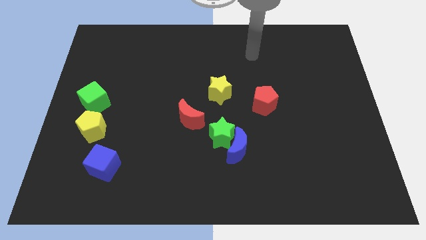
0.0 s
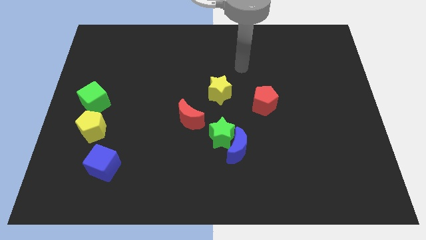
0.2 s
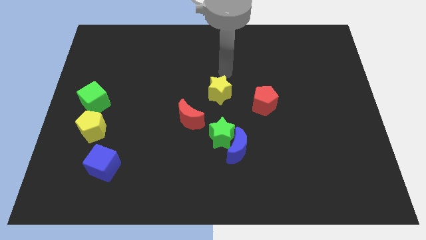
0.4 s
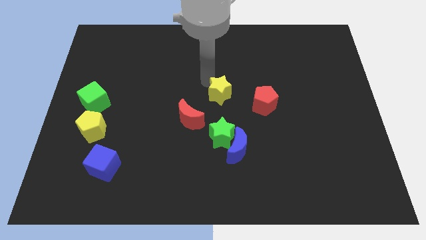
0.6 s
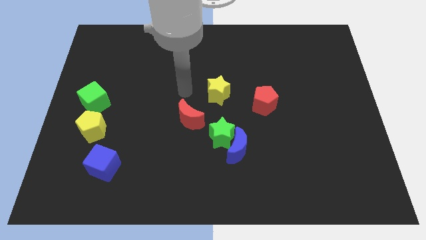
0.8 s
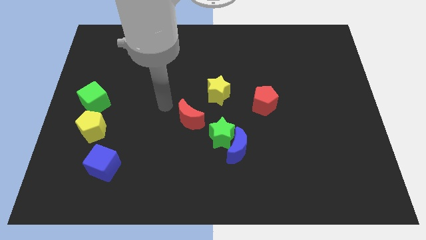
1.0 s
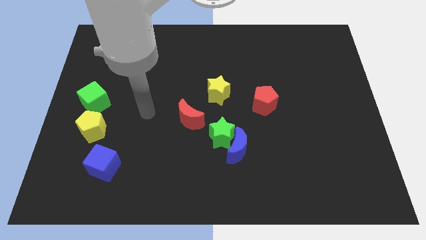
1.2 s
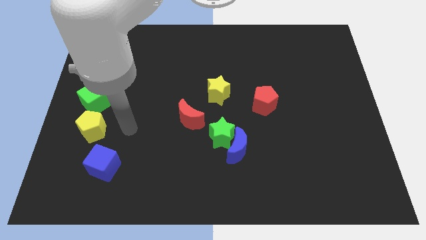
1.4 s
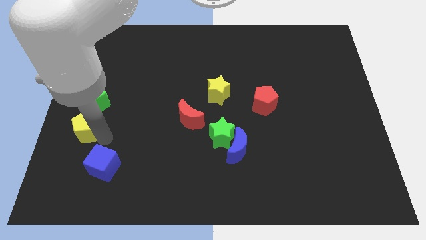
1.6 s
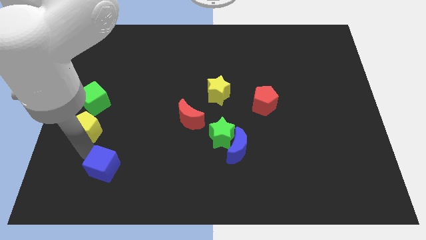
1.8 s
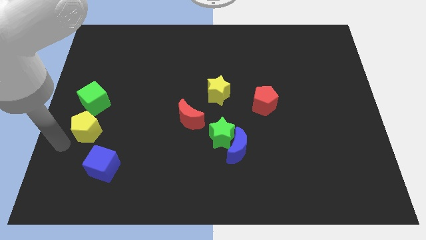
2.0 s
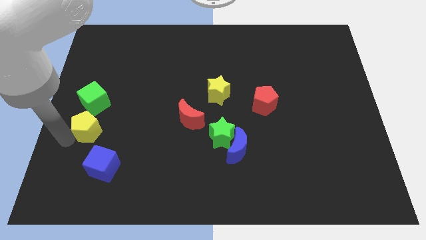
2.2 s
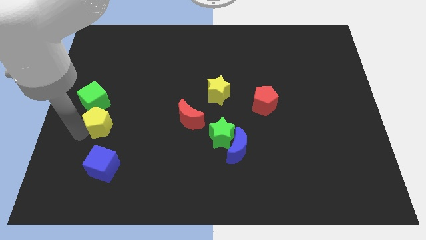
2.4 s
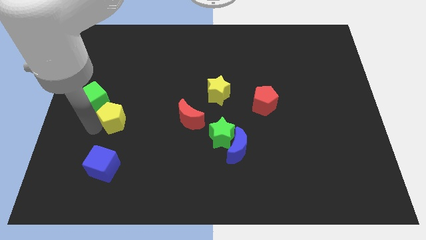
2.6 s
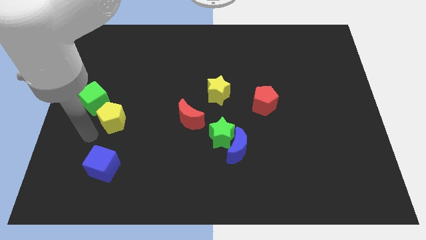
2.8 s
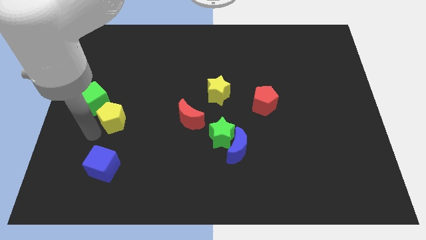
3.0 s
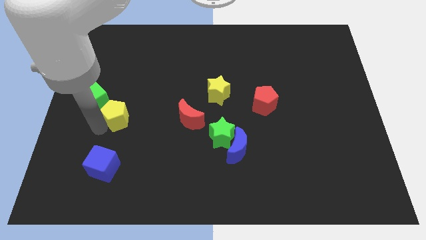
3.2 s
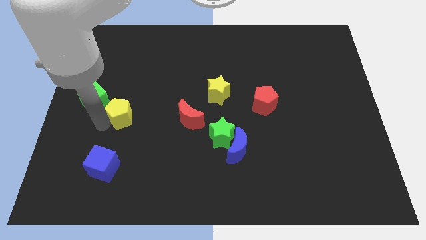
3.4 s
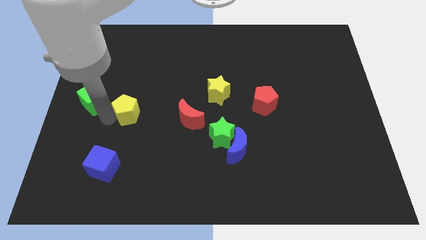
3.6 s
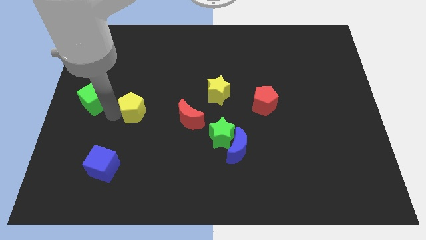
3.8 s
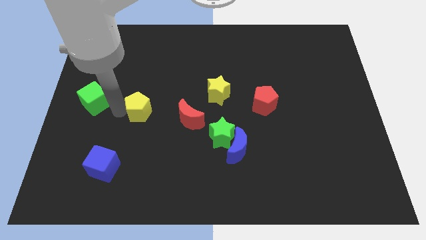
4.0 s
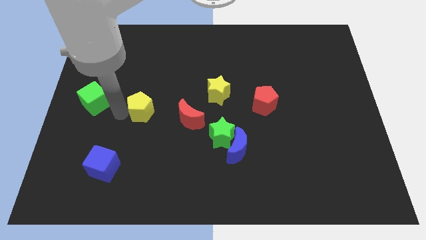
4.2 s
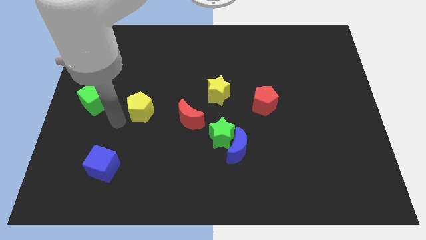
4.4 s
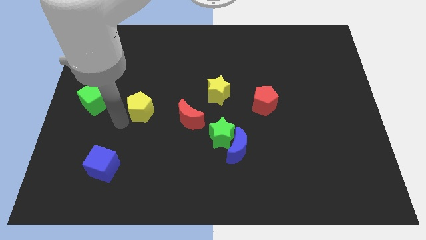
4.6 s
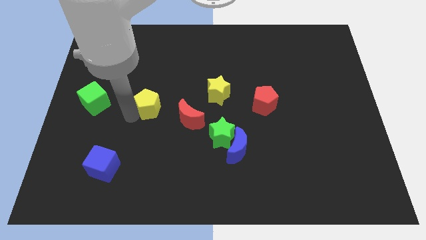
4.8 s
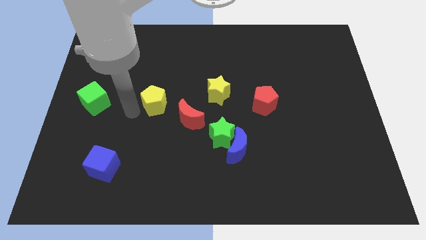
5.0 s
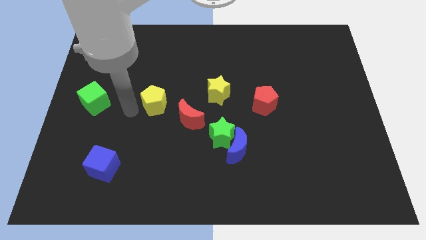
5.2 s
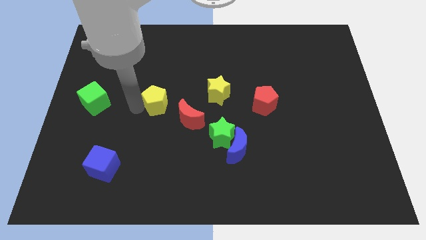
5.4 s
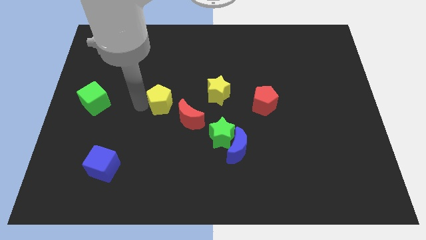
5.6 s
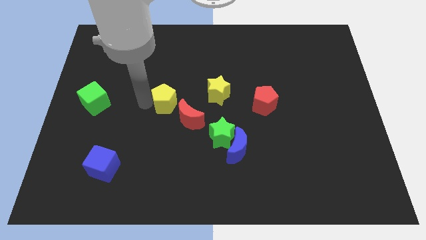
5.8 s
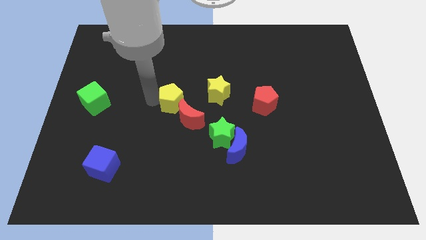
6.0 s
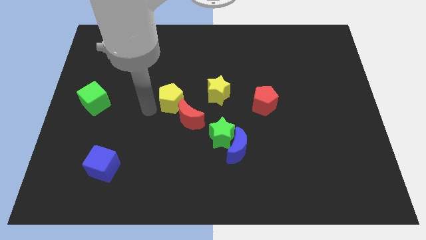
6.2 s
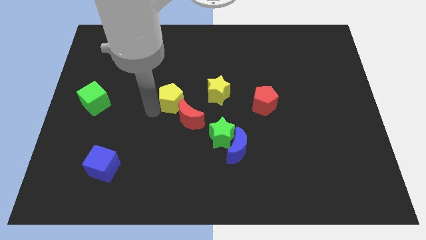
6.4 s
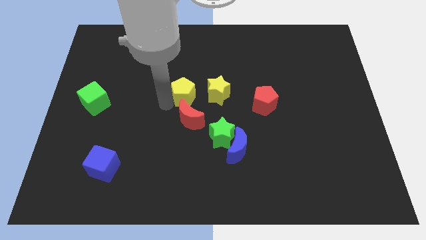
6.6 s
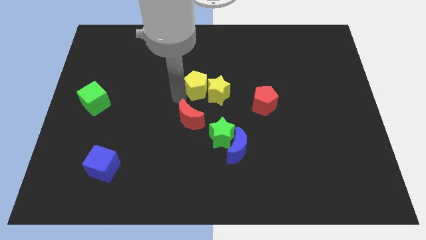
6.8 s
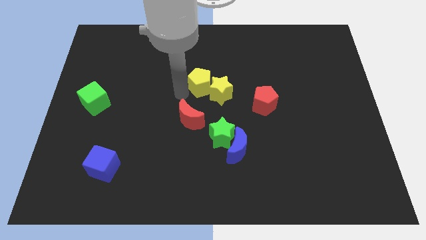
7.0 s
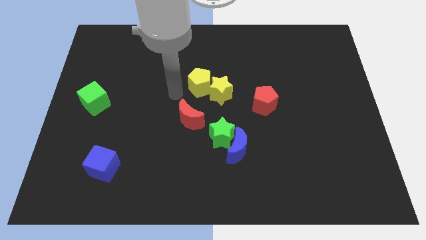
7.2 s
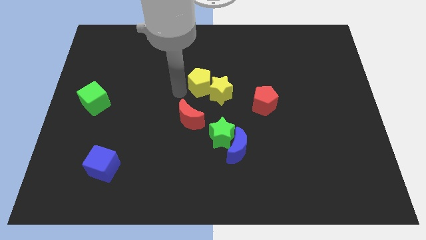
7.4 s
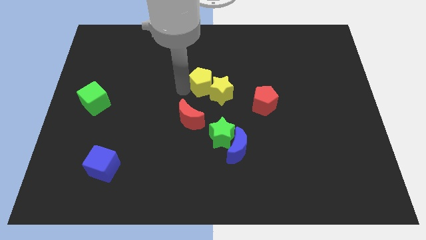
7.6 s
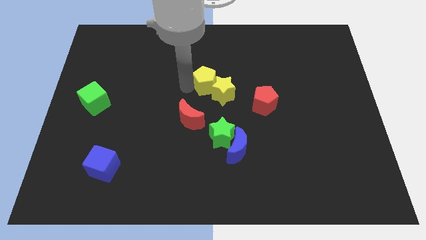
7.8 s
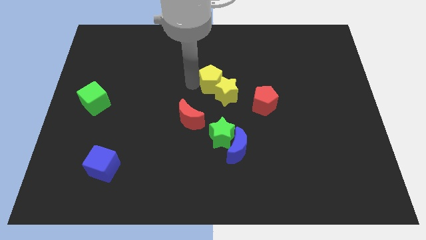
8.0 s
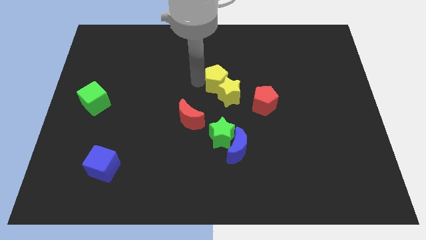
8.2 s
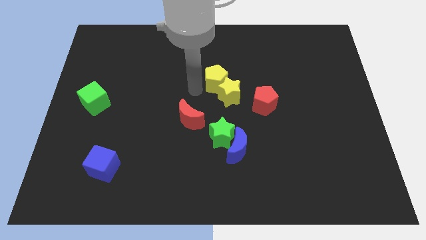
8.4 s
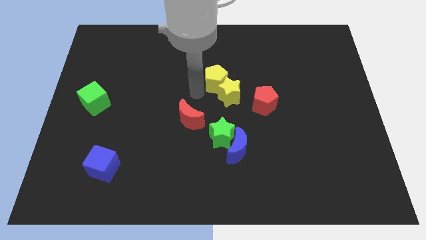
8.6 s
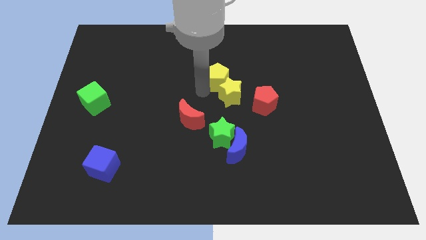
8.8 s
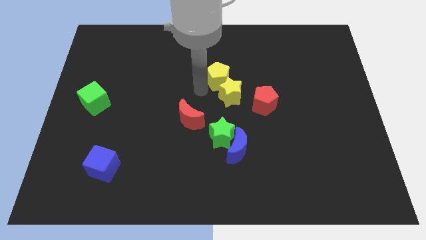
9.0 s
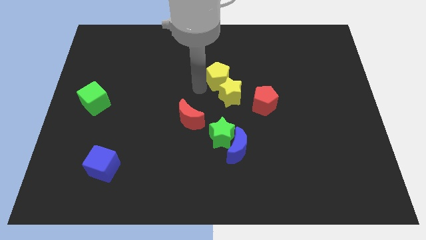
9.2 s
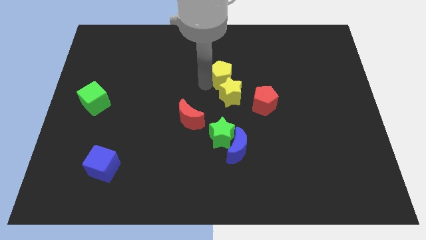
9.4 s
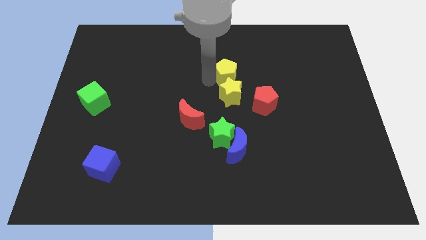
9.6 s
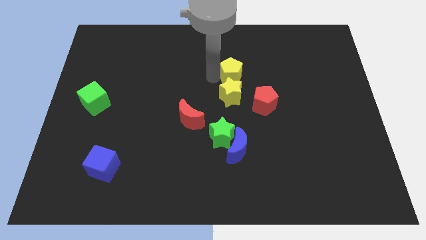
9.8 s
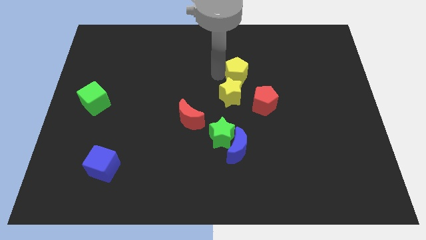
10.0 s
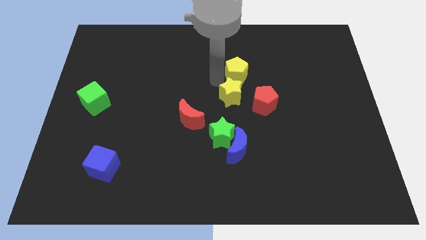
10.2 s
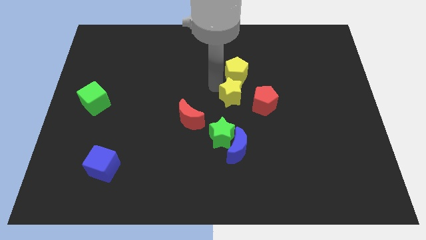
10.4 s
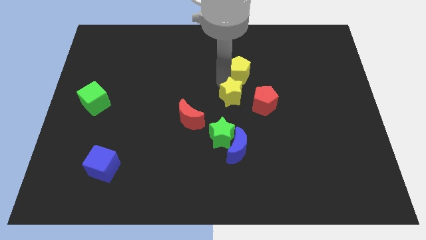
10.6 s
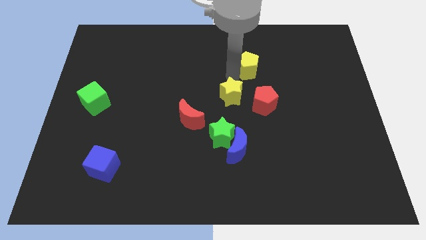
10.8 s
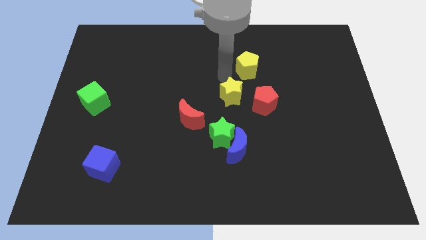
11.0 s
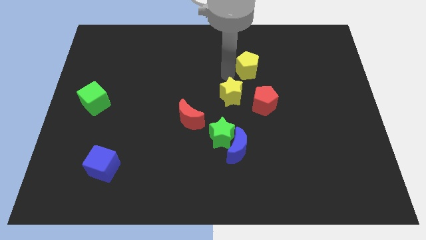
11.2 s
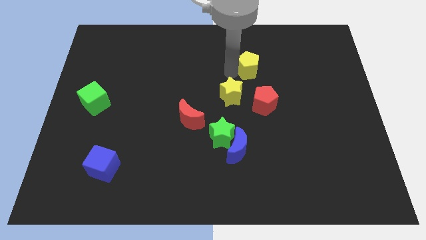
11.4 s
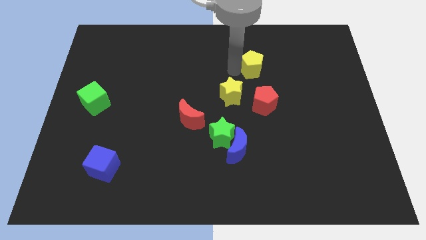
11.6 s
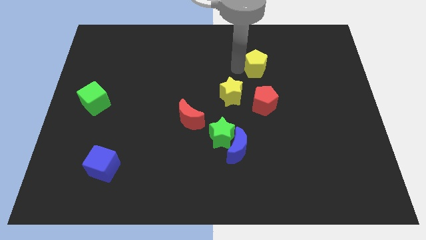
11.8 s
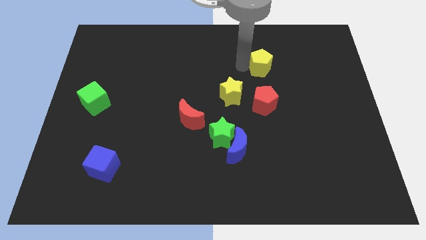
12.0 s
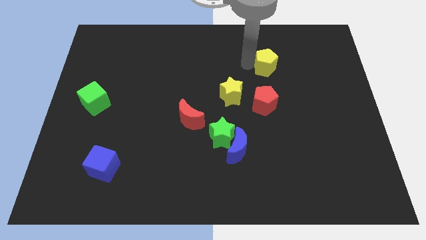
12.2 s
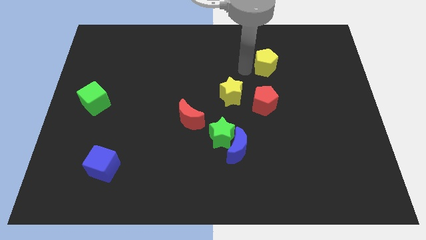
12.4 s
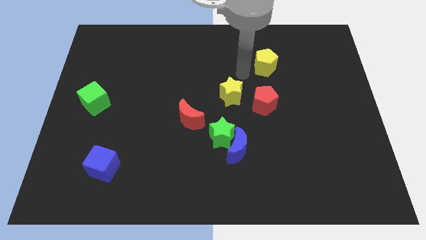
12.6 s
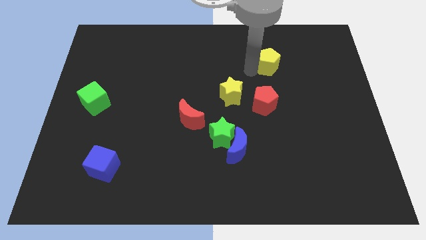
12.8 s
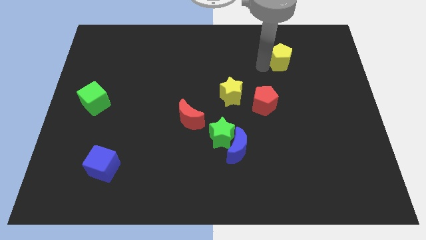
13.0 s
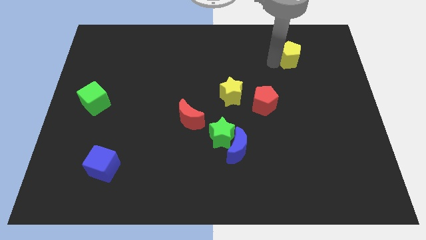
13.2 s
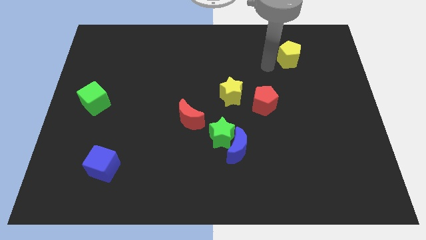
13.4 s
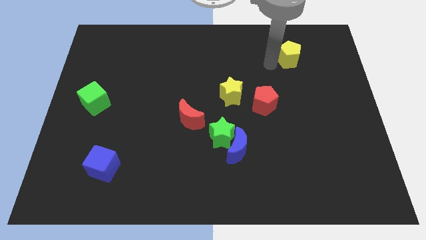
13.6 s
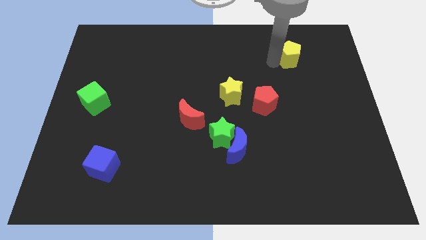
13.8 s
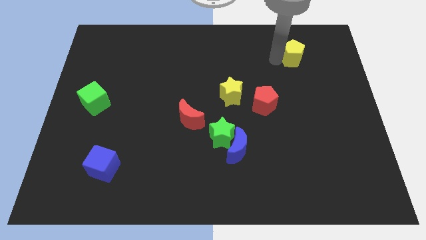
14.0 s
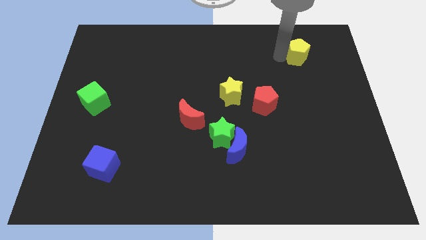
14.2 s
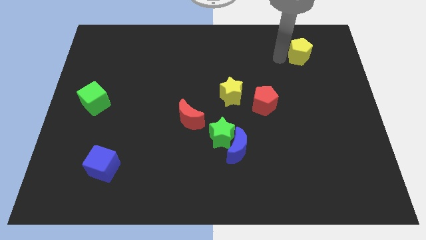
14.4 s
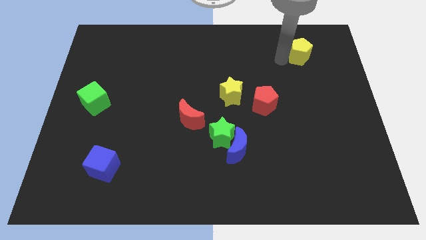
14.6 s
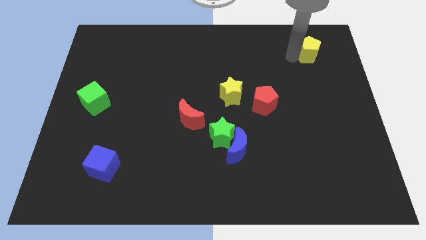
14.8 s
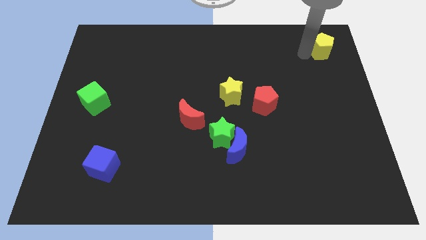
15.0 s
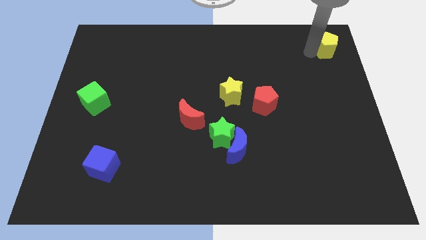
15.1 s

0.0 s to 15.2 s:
put the yellow pentagon to the upper right corner
